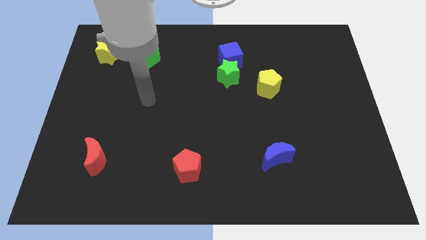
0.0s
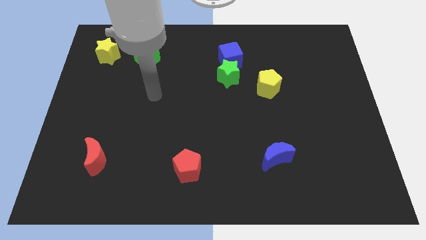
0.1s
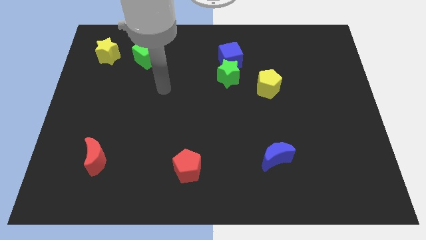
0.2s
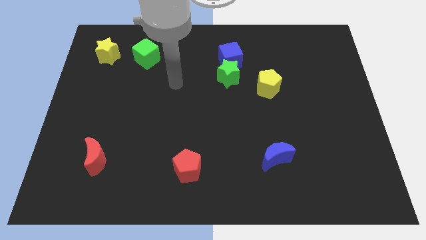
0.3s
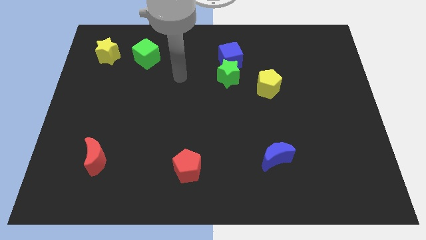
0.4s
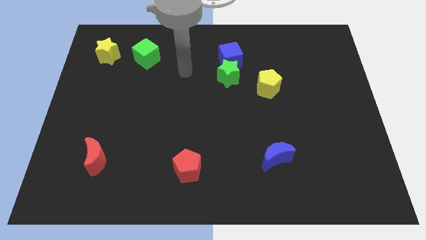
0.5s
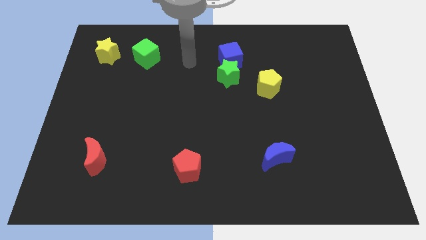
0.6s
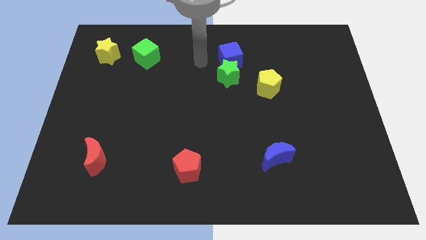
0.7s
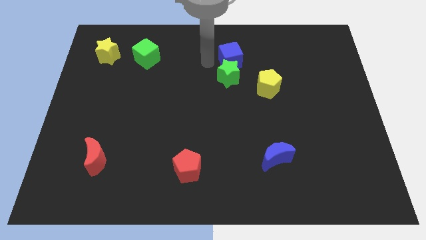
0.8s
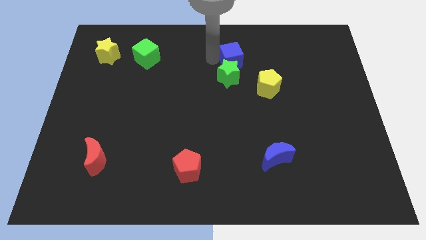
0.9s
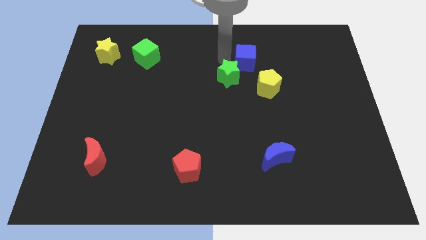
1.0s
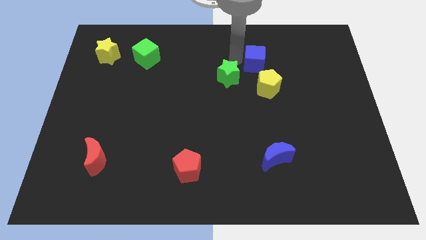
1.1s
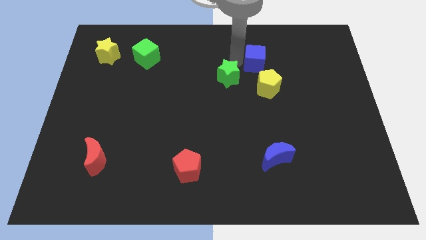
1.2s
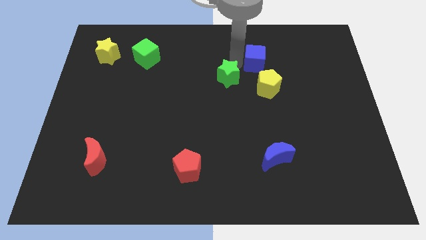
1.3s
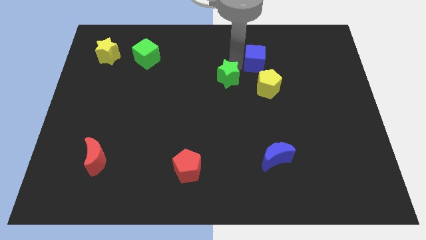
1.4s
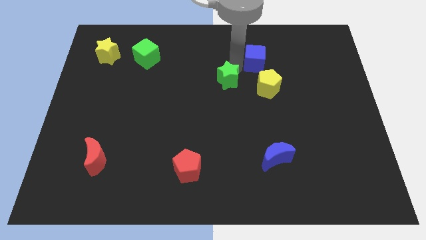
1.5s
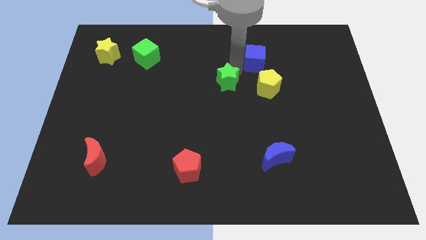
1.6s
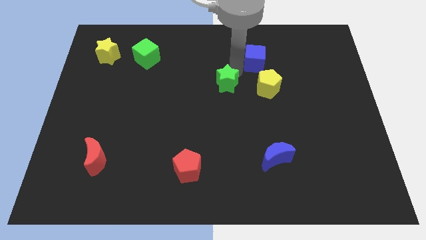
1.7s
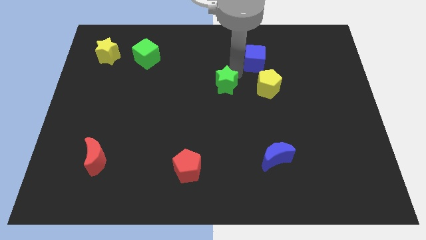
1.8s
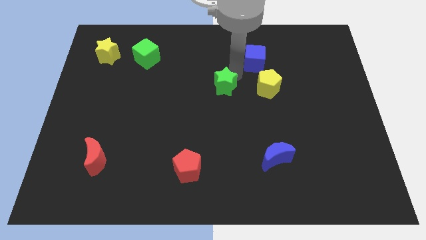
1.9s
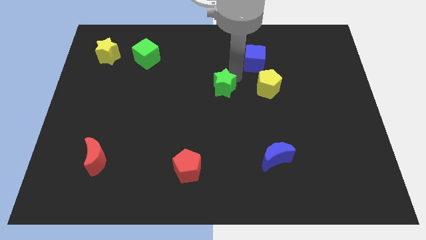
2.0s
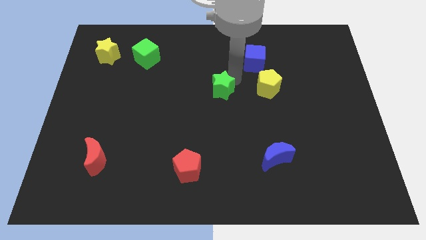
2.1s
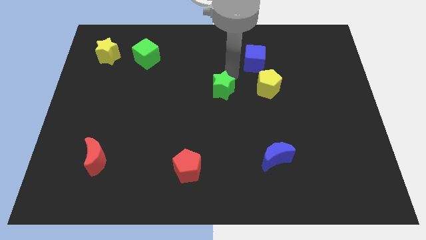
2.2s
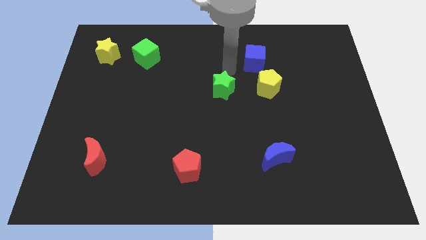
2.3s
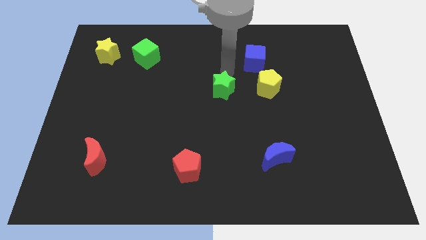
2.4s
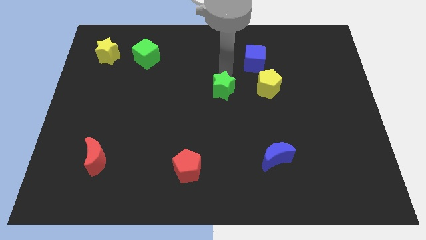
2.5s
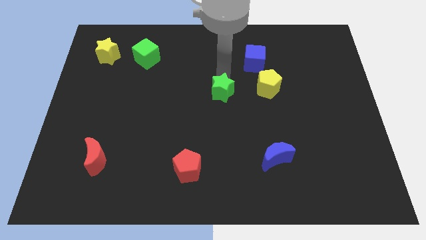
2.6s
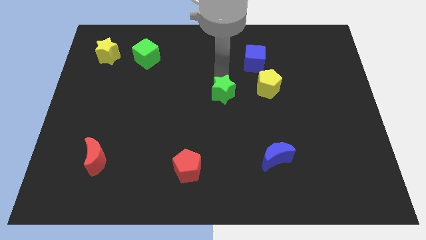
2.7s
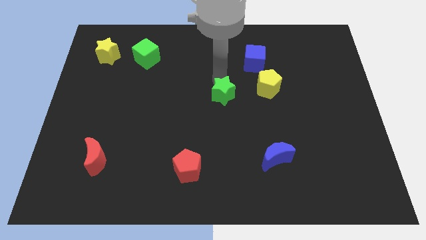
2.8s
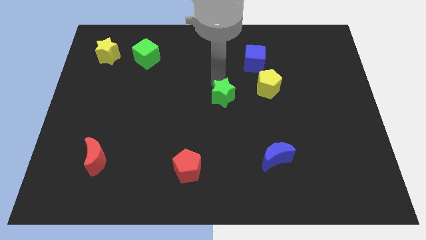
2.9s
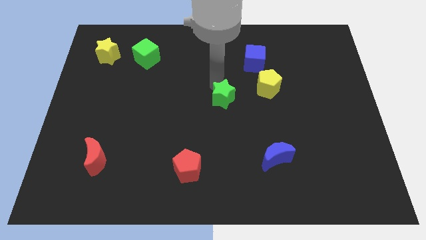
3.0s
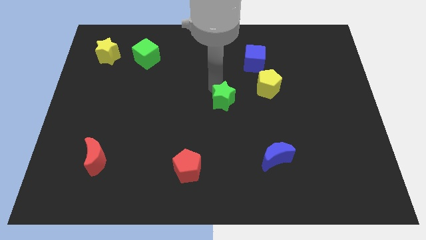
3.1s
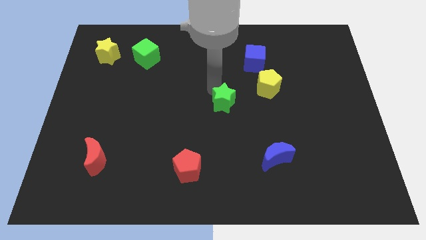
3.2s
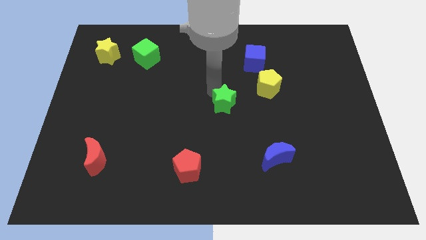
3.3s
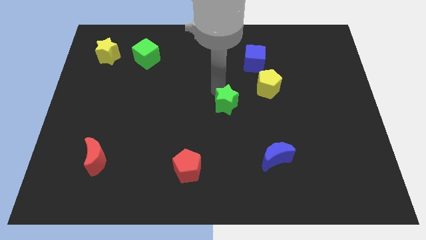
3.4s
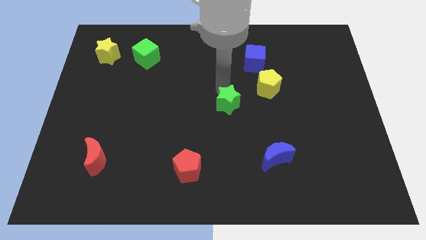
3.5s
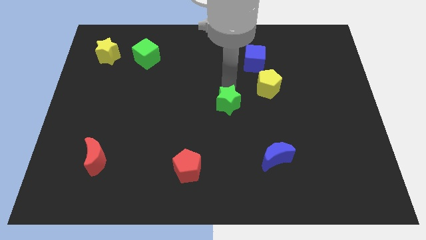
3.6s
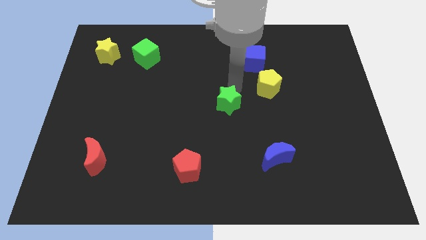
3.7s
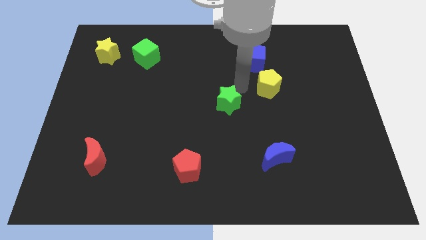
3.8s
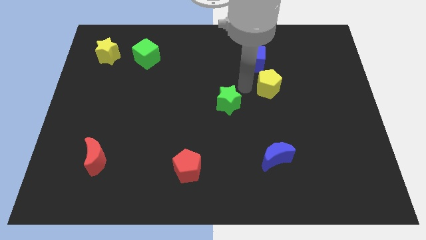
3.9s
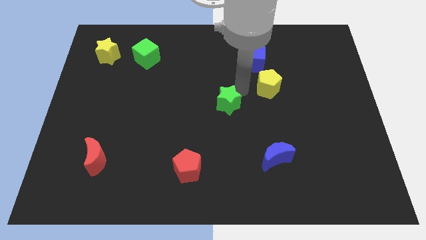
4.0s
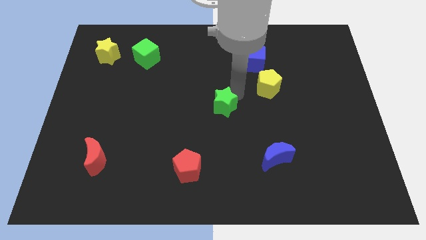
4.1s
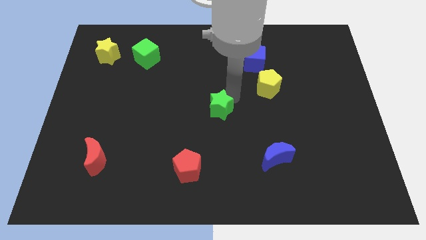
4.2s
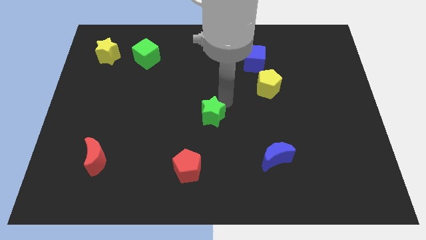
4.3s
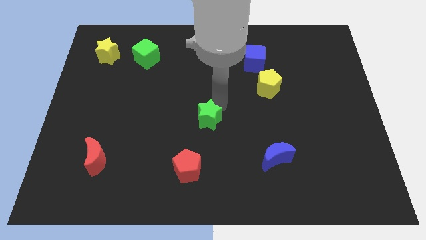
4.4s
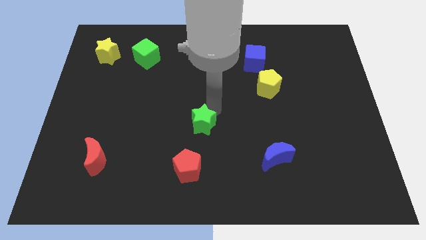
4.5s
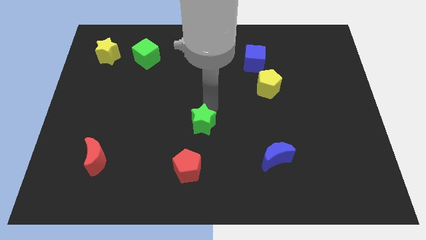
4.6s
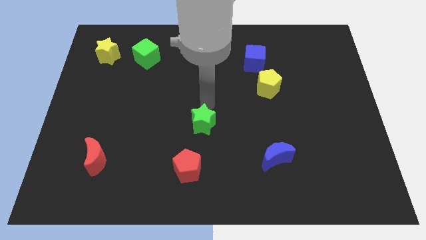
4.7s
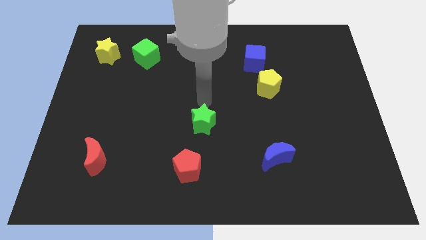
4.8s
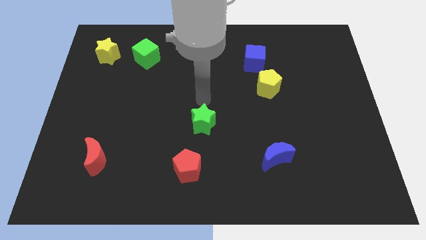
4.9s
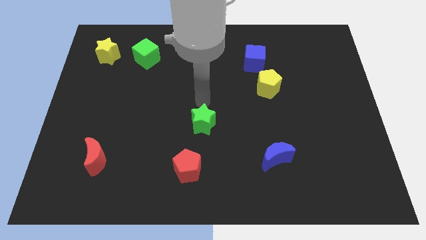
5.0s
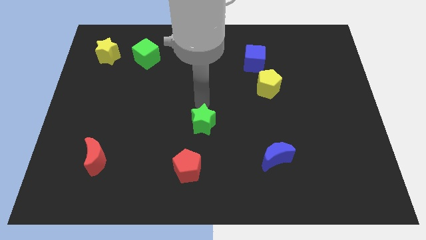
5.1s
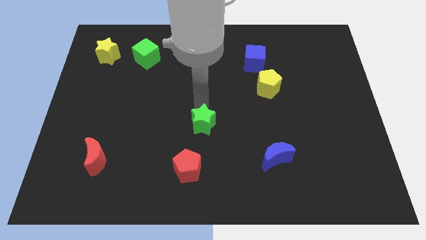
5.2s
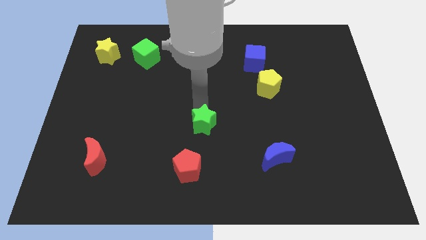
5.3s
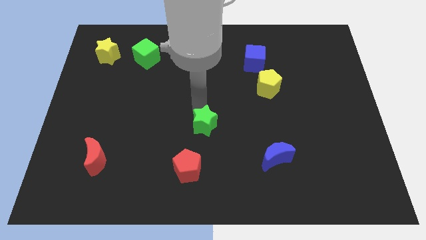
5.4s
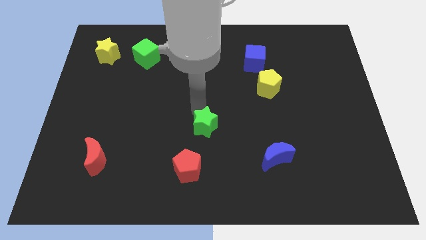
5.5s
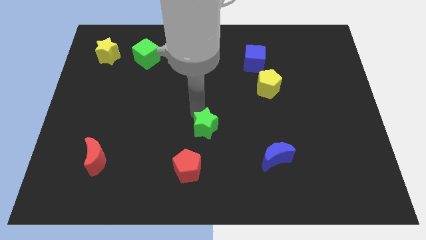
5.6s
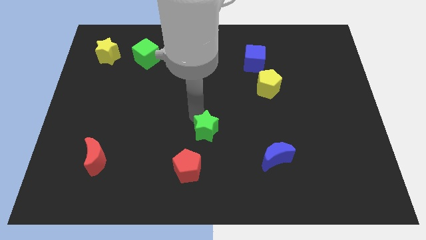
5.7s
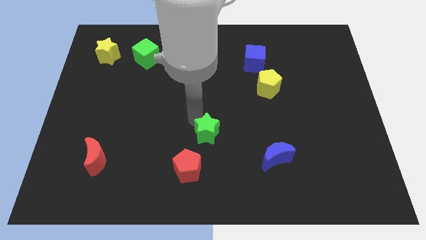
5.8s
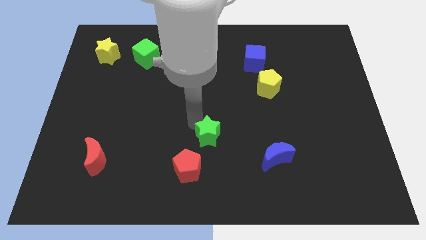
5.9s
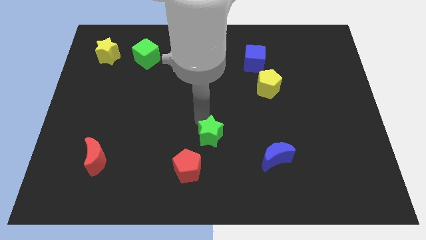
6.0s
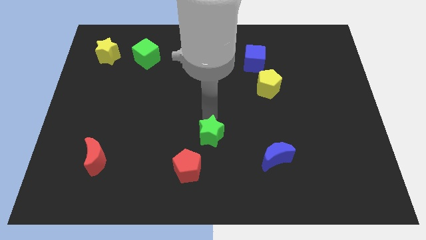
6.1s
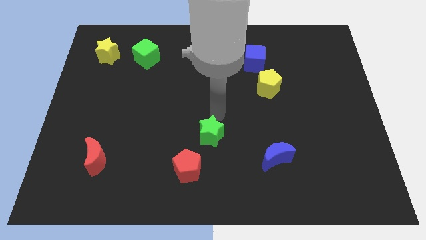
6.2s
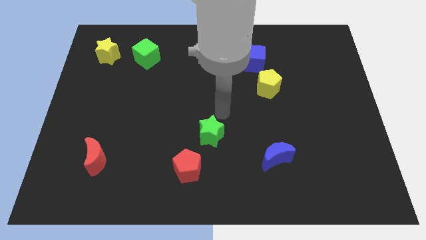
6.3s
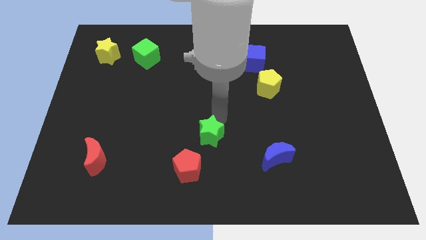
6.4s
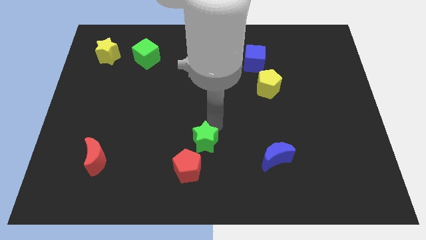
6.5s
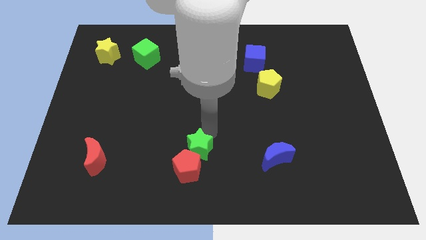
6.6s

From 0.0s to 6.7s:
slide the green star next to the red pentagon

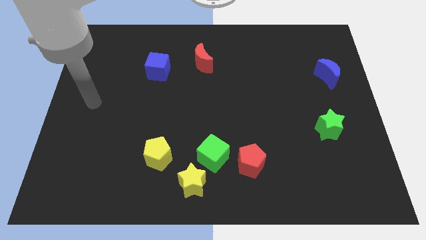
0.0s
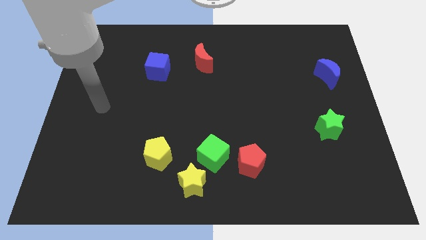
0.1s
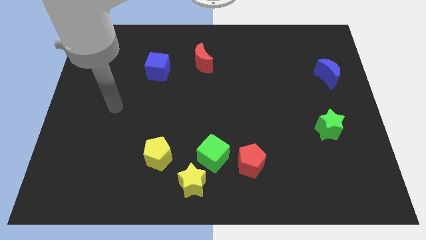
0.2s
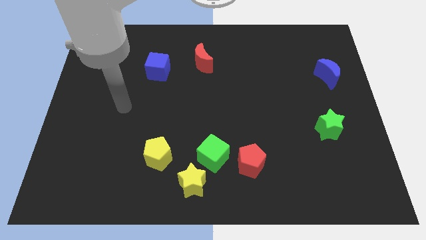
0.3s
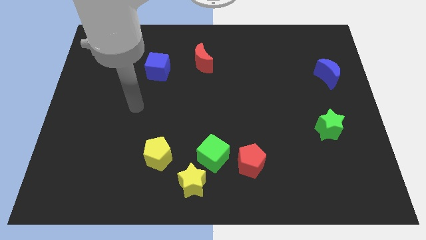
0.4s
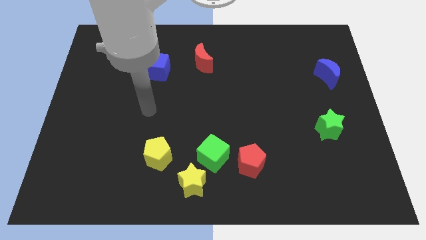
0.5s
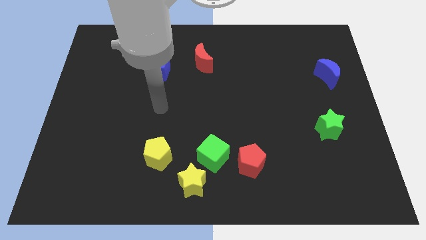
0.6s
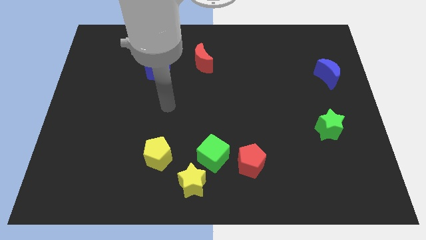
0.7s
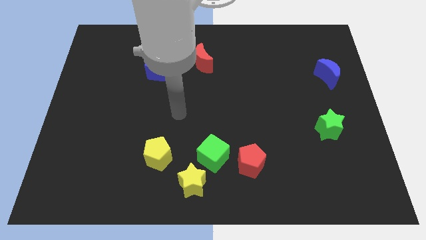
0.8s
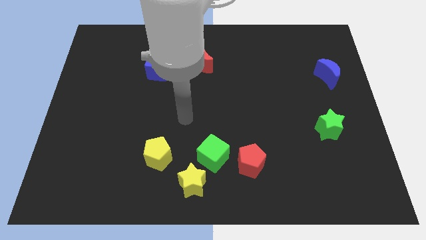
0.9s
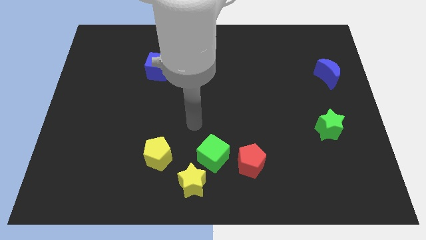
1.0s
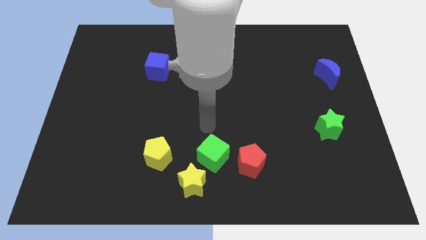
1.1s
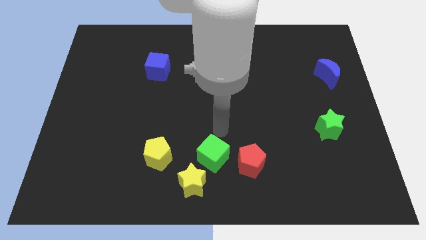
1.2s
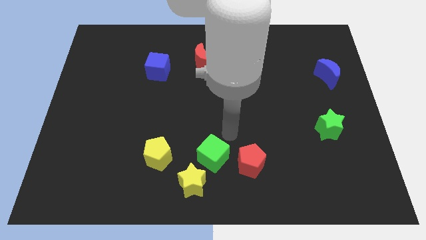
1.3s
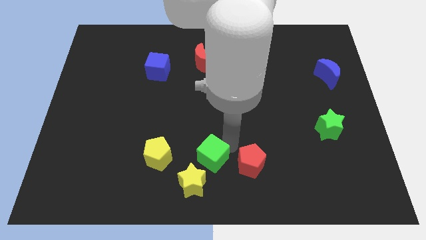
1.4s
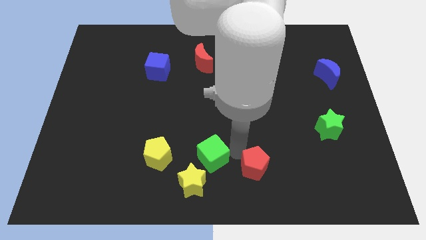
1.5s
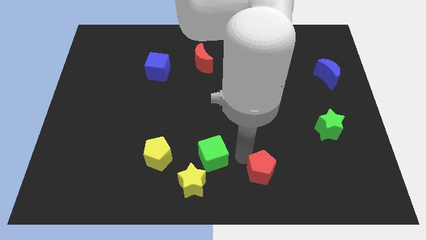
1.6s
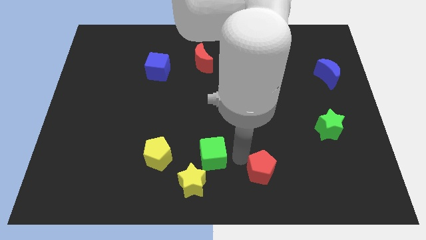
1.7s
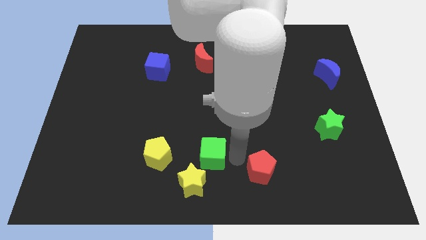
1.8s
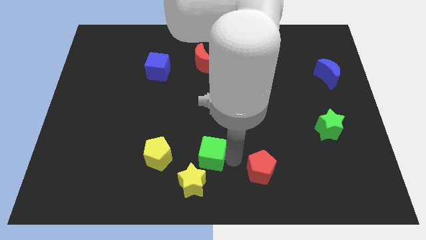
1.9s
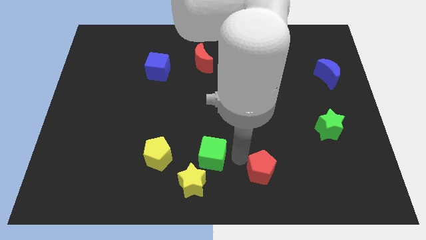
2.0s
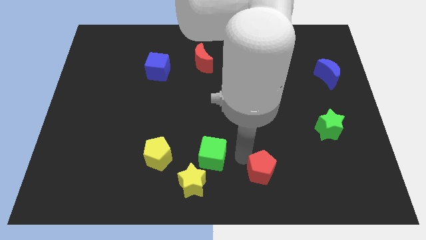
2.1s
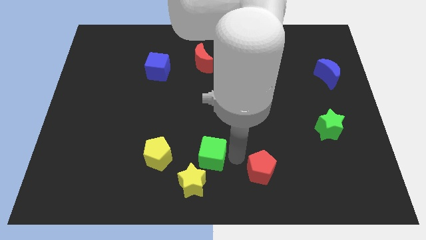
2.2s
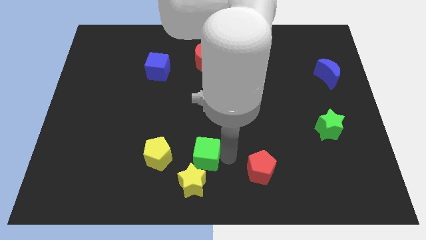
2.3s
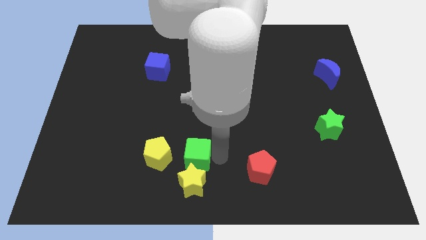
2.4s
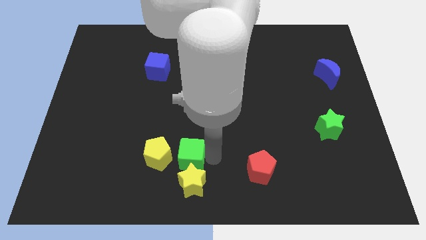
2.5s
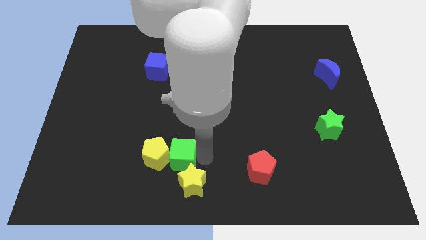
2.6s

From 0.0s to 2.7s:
move the green cube close to the yellow pentagon
